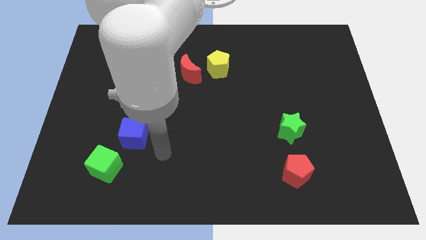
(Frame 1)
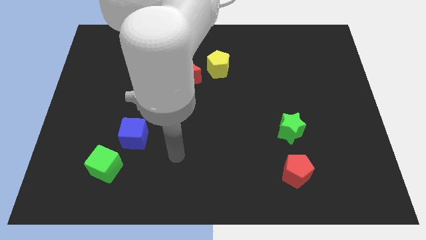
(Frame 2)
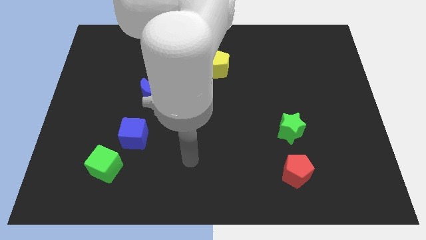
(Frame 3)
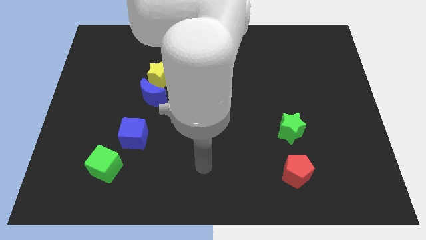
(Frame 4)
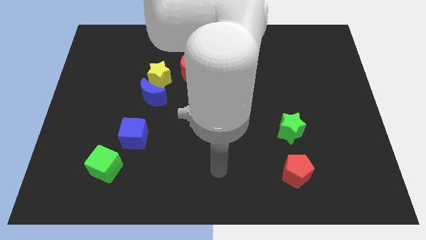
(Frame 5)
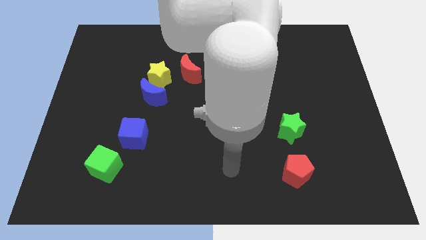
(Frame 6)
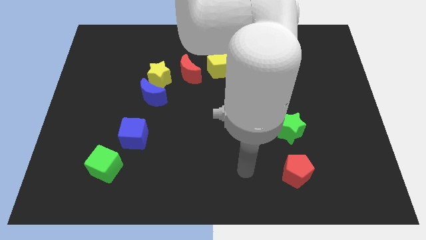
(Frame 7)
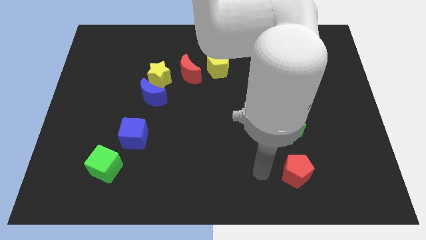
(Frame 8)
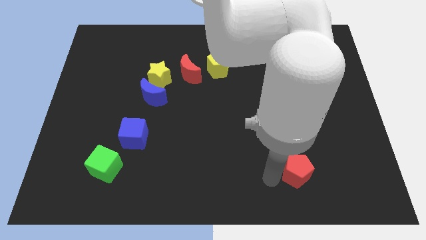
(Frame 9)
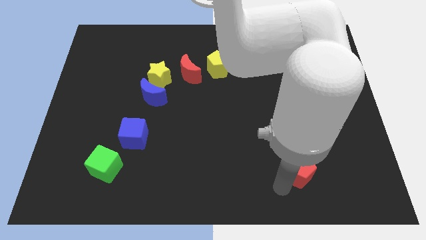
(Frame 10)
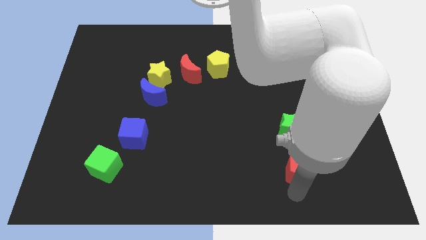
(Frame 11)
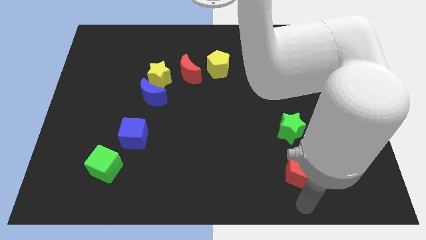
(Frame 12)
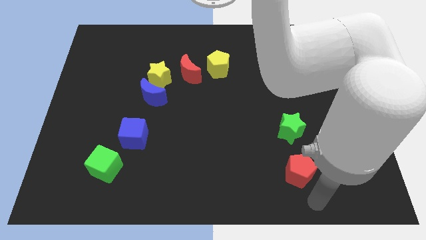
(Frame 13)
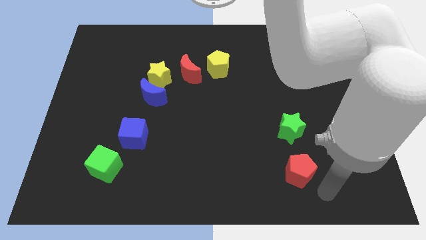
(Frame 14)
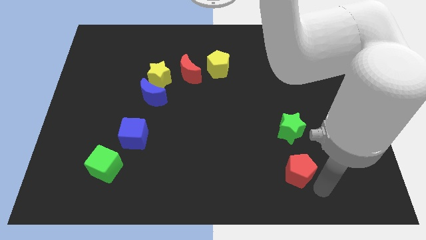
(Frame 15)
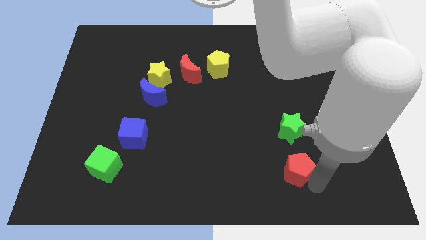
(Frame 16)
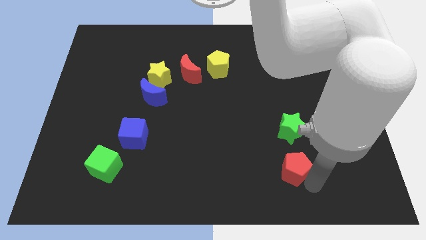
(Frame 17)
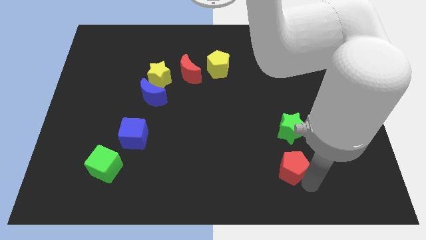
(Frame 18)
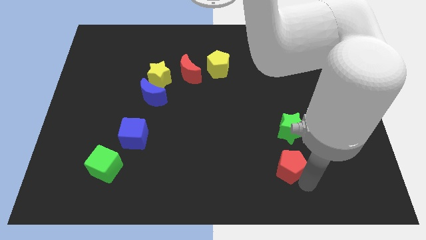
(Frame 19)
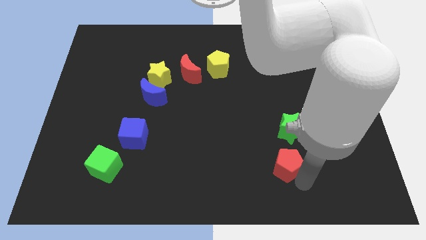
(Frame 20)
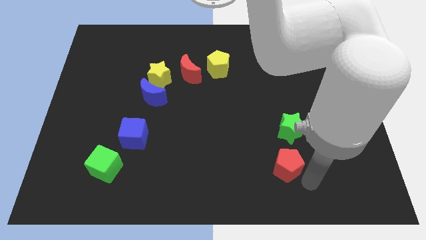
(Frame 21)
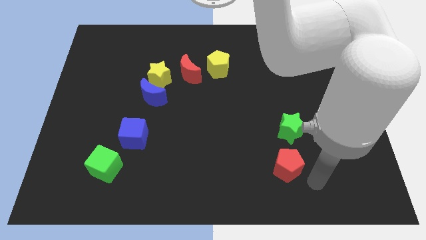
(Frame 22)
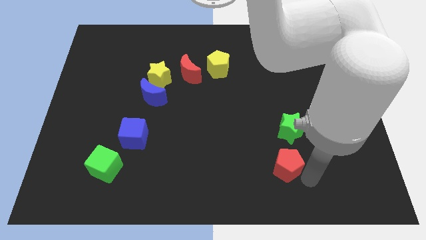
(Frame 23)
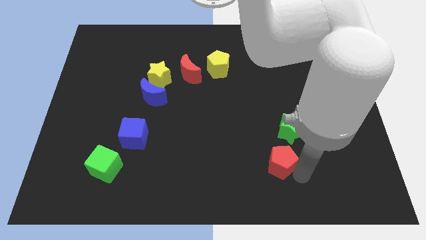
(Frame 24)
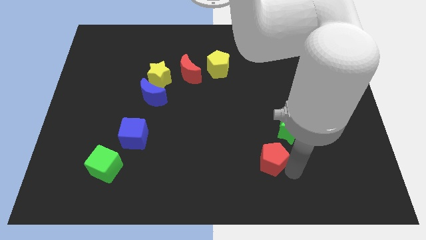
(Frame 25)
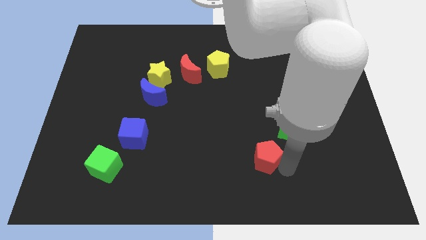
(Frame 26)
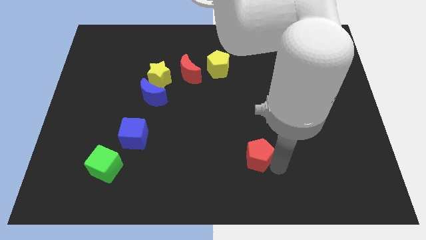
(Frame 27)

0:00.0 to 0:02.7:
slightly move the red pentagon diagonally up and to the left

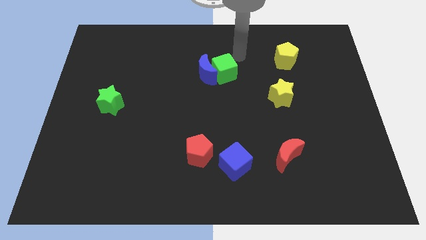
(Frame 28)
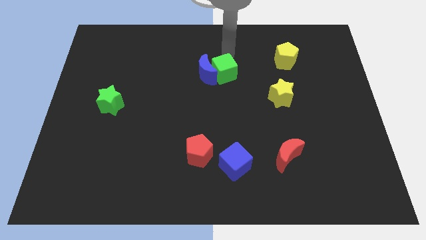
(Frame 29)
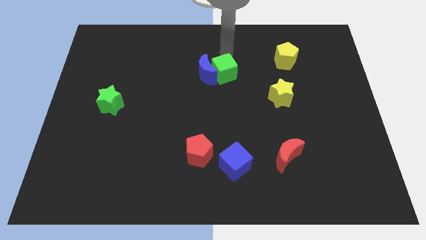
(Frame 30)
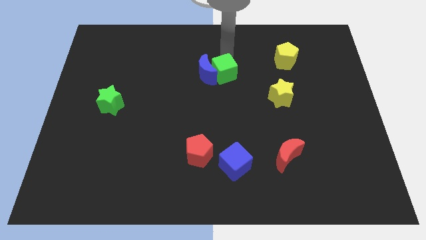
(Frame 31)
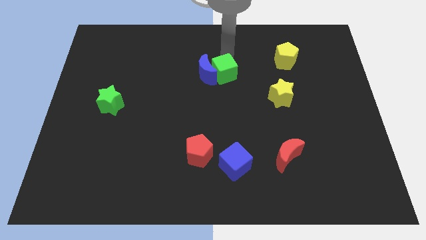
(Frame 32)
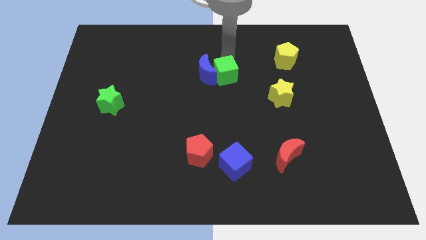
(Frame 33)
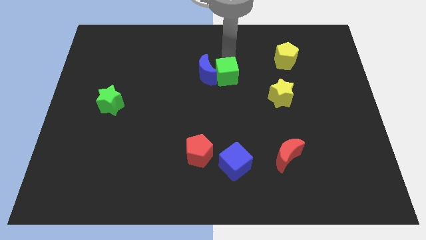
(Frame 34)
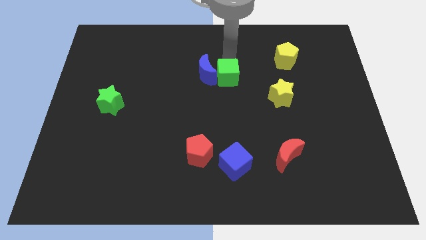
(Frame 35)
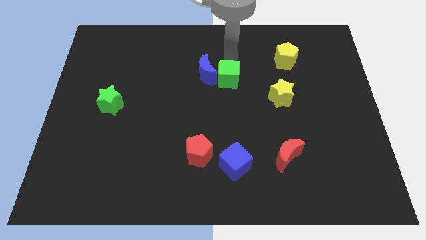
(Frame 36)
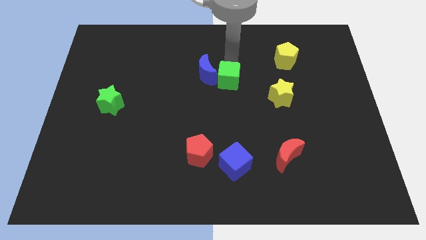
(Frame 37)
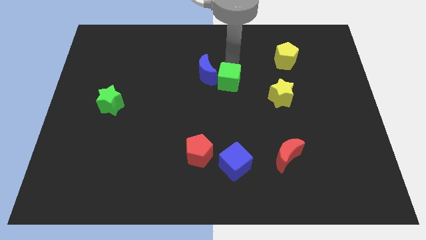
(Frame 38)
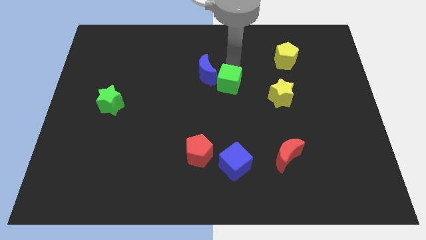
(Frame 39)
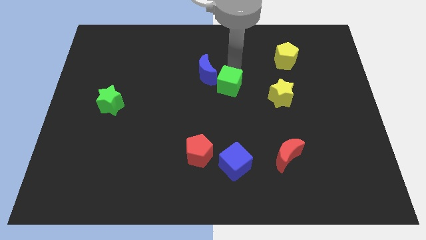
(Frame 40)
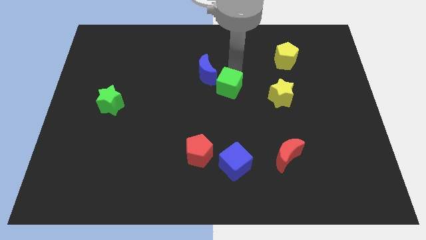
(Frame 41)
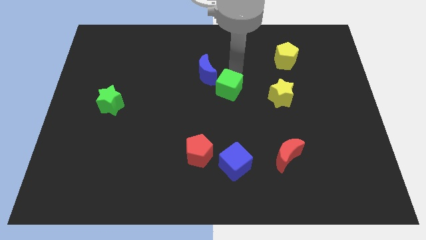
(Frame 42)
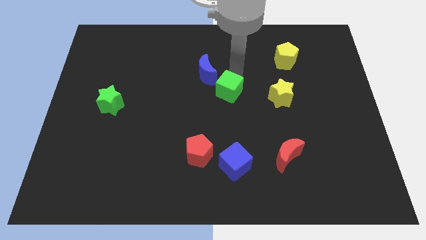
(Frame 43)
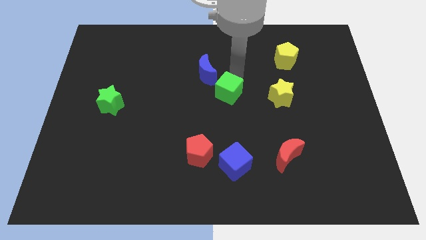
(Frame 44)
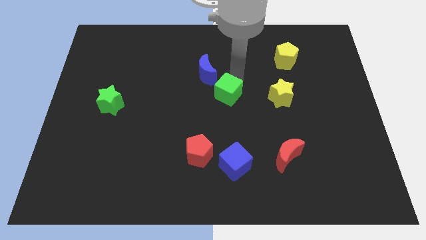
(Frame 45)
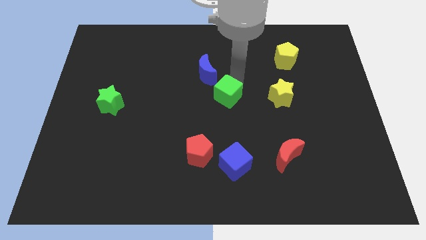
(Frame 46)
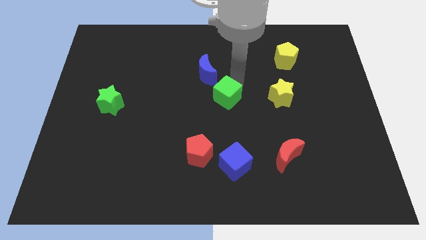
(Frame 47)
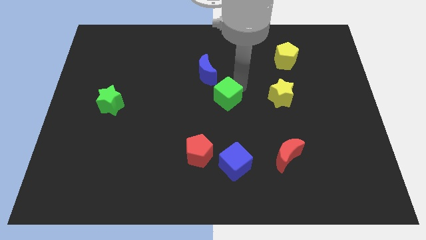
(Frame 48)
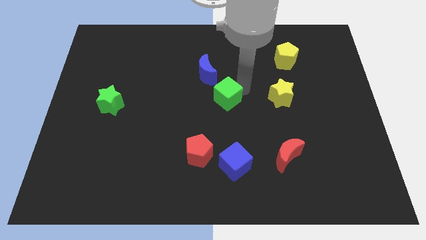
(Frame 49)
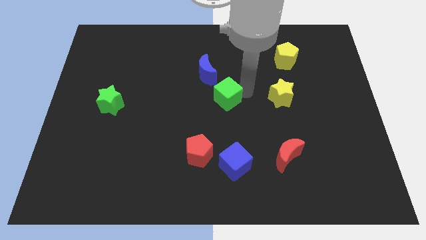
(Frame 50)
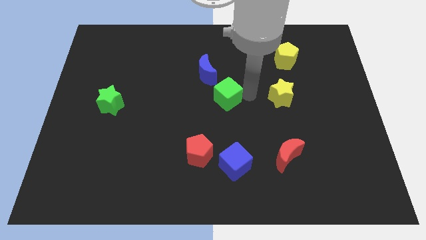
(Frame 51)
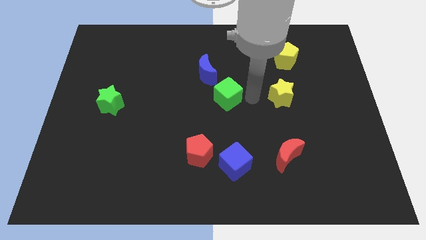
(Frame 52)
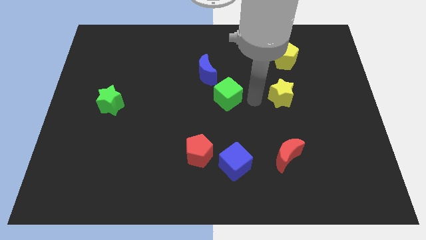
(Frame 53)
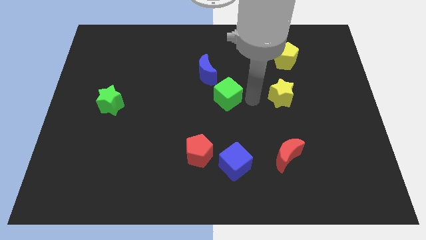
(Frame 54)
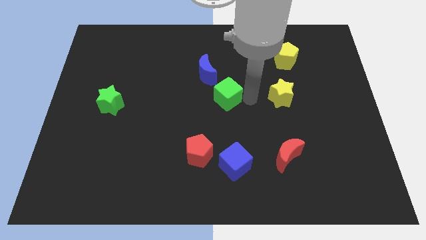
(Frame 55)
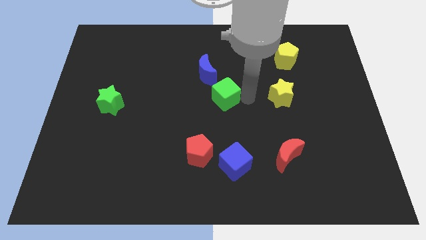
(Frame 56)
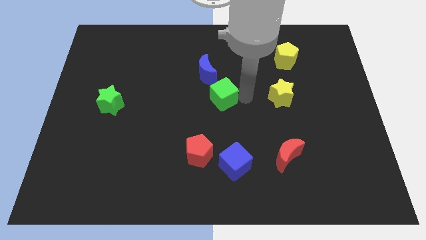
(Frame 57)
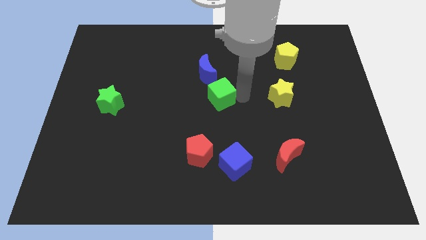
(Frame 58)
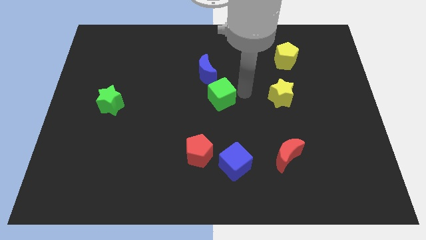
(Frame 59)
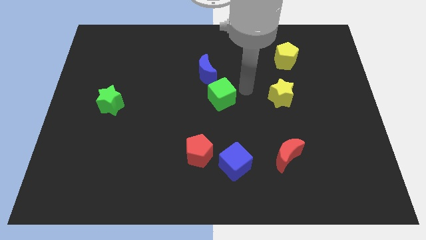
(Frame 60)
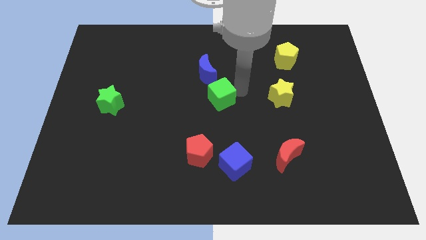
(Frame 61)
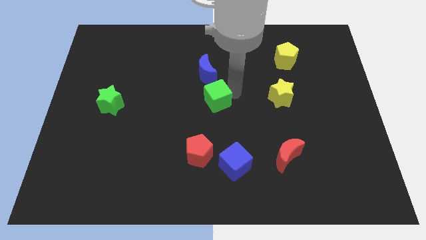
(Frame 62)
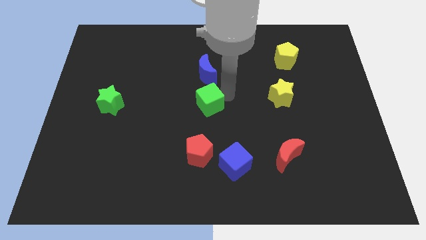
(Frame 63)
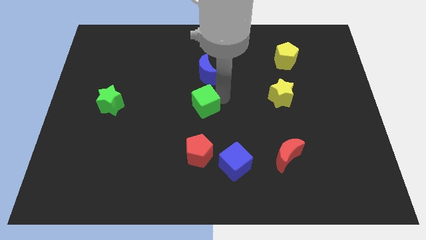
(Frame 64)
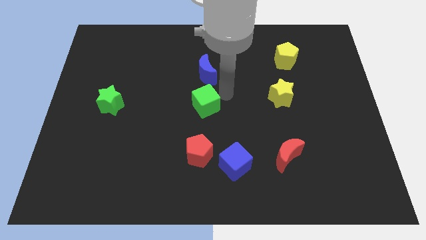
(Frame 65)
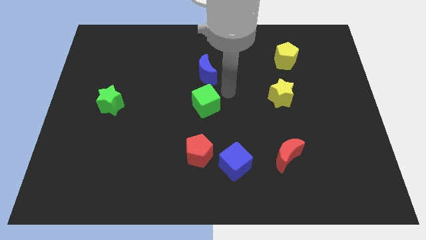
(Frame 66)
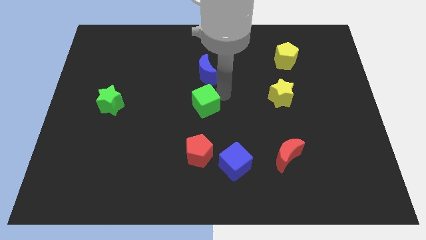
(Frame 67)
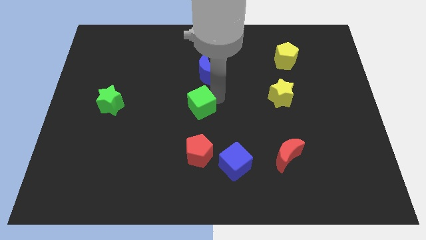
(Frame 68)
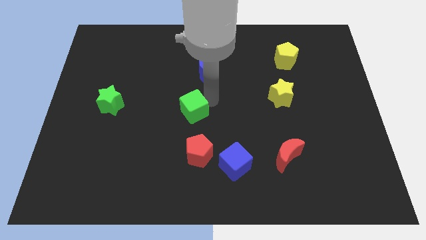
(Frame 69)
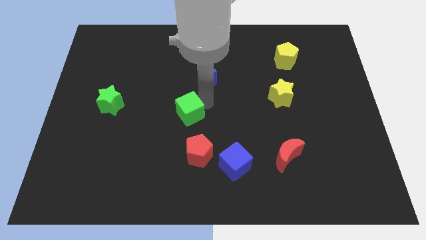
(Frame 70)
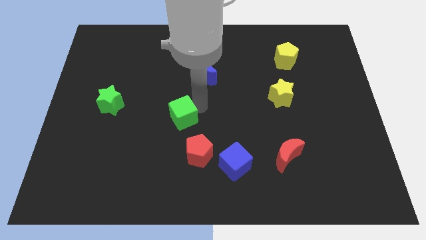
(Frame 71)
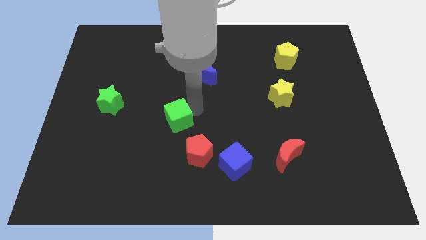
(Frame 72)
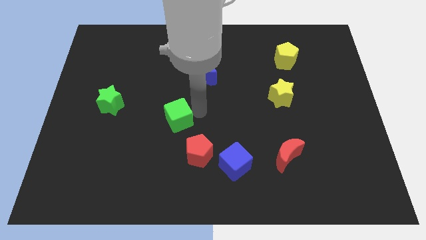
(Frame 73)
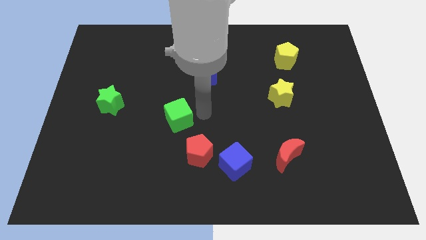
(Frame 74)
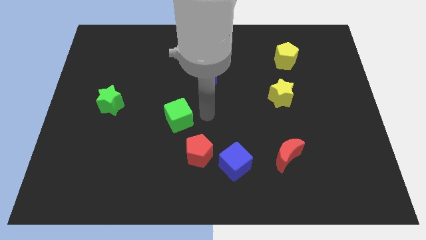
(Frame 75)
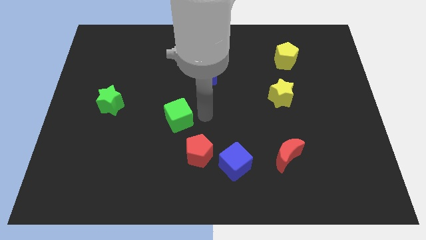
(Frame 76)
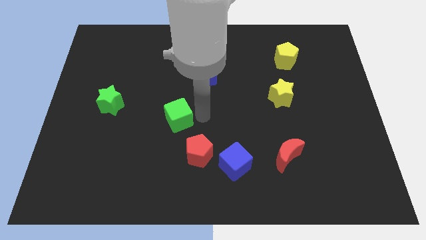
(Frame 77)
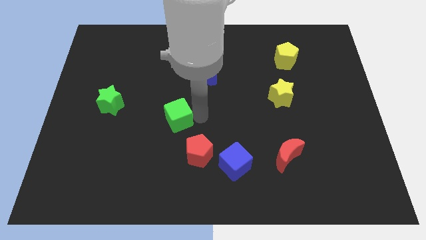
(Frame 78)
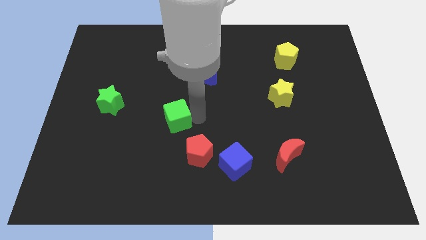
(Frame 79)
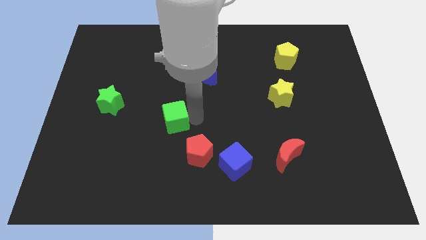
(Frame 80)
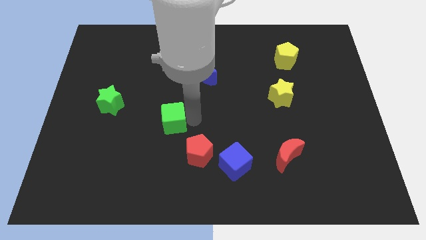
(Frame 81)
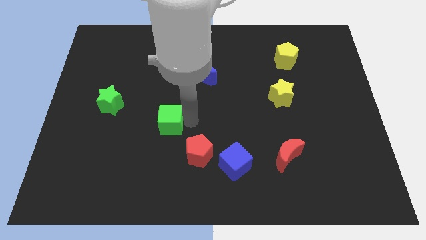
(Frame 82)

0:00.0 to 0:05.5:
push the green cube down and left diagonally
